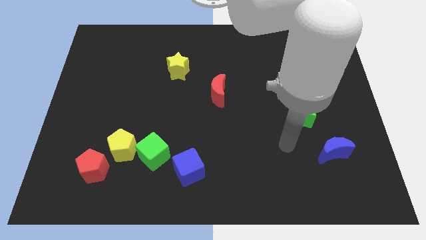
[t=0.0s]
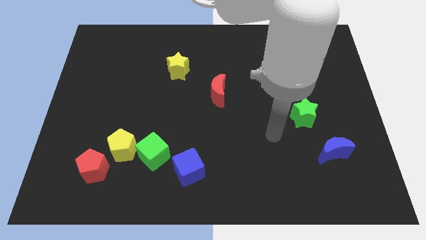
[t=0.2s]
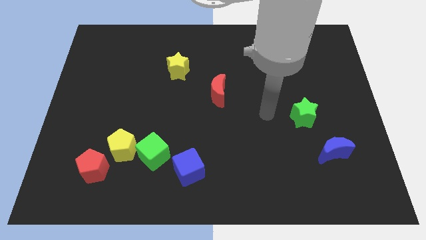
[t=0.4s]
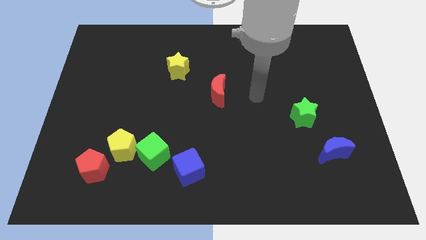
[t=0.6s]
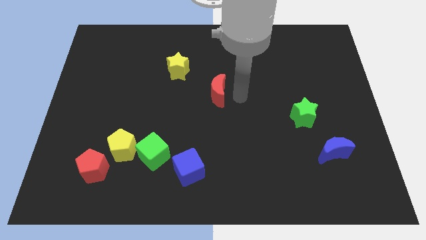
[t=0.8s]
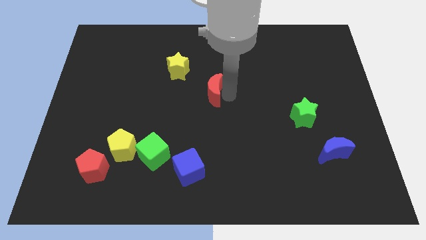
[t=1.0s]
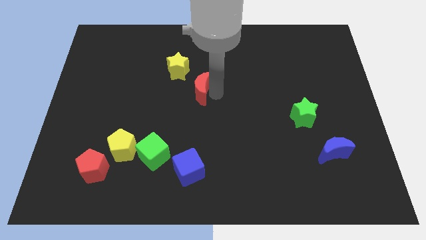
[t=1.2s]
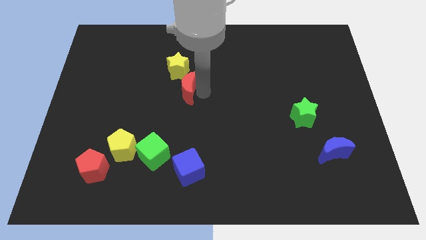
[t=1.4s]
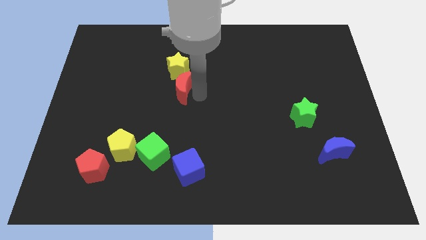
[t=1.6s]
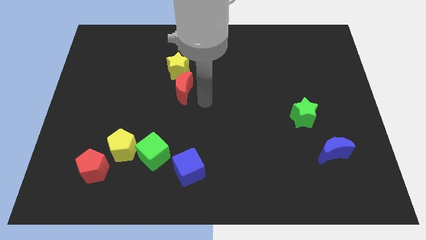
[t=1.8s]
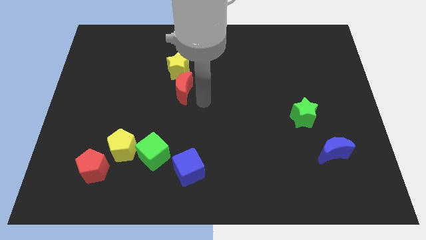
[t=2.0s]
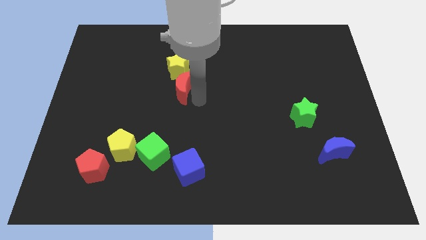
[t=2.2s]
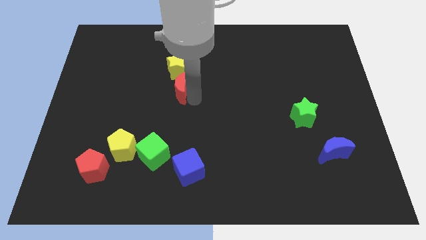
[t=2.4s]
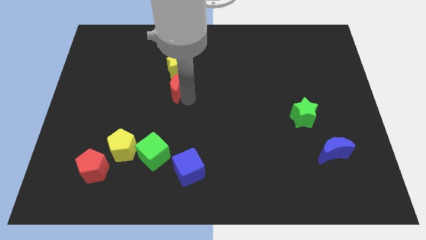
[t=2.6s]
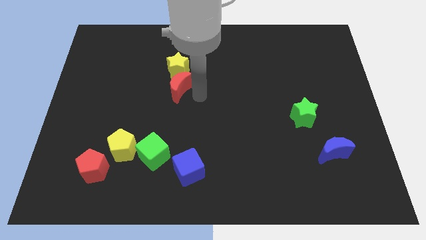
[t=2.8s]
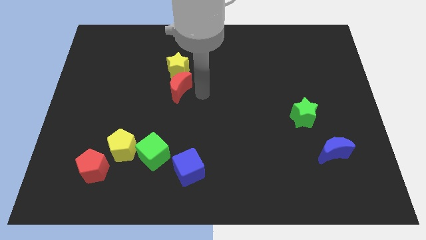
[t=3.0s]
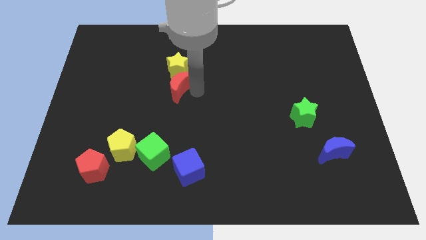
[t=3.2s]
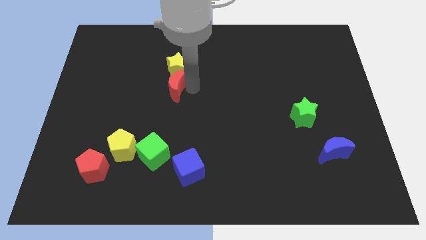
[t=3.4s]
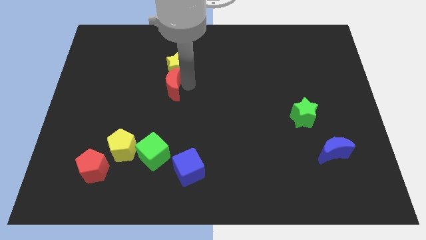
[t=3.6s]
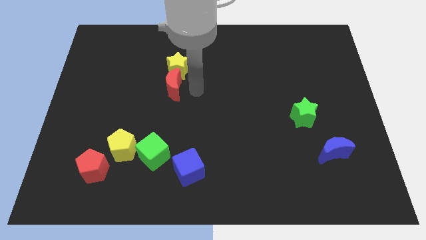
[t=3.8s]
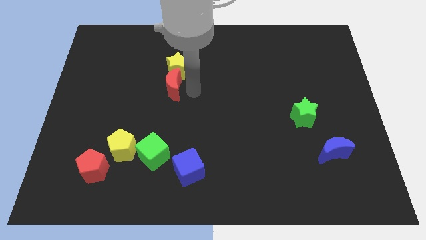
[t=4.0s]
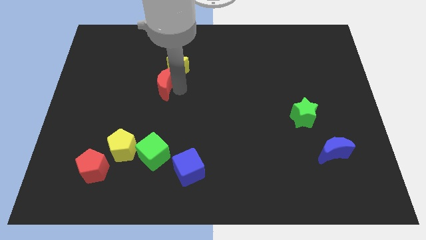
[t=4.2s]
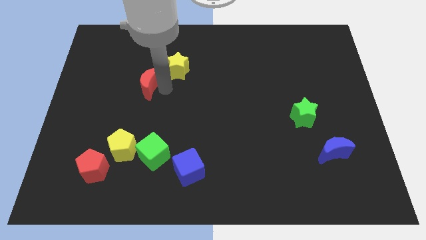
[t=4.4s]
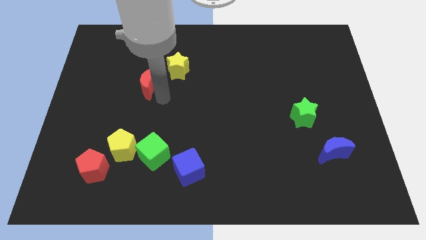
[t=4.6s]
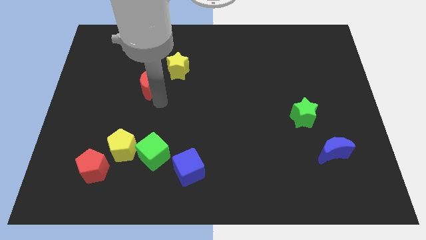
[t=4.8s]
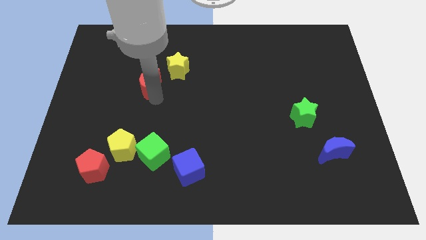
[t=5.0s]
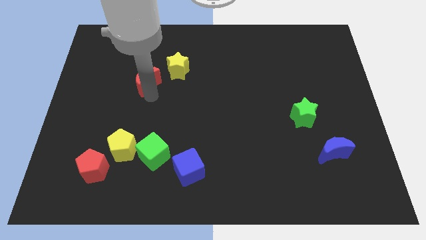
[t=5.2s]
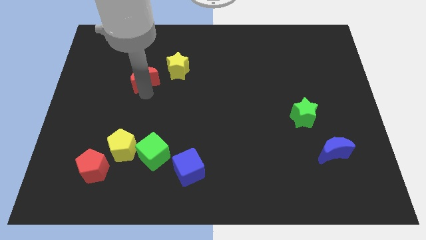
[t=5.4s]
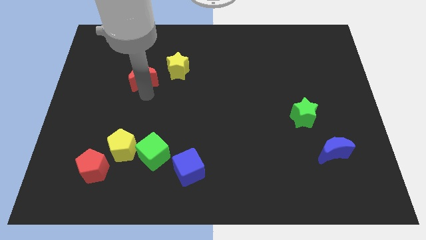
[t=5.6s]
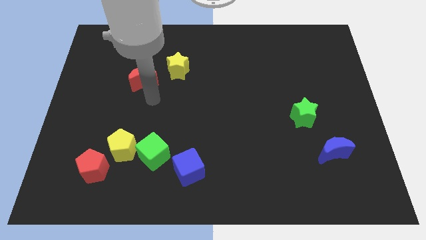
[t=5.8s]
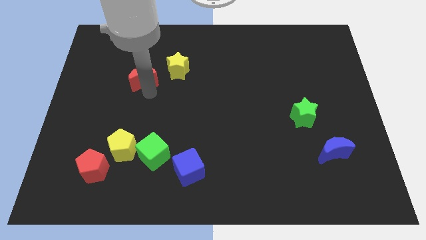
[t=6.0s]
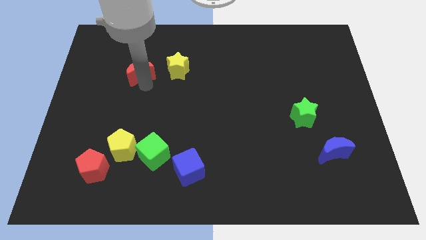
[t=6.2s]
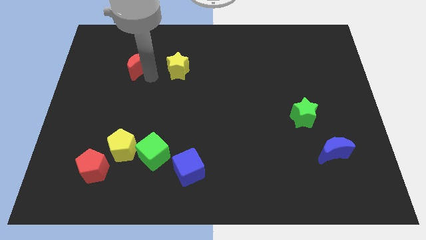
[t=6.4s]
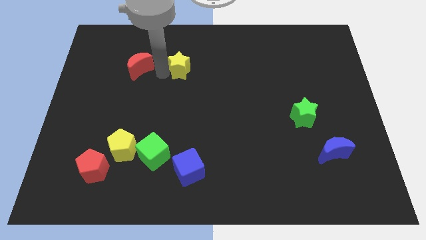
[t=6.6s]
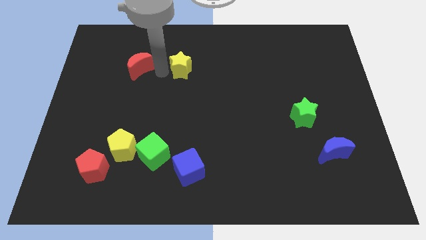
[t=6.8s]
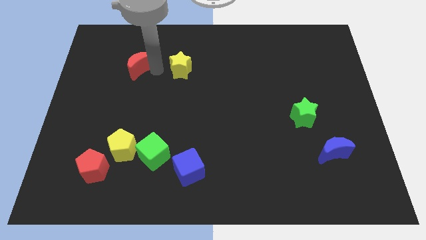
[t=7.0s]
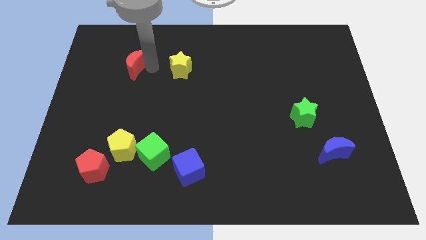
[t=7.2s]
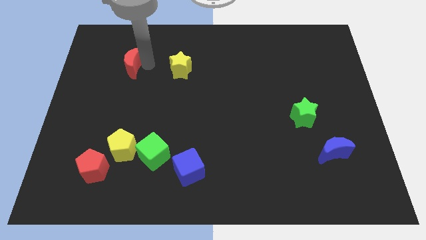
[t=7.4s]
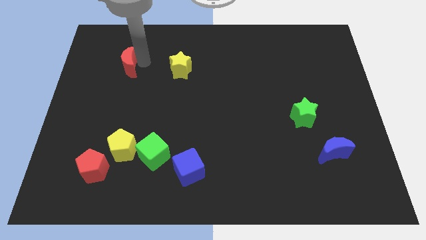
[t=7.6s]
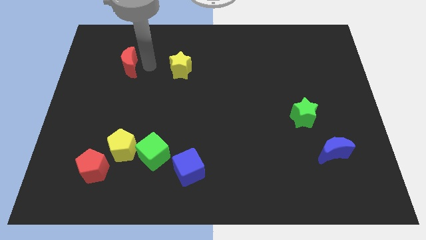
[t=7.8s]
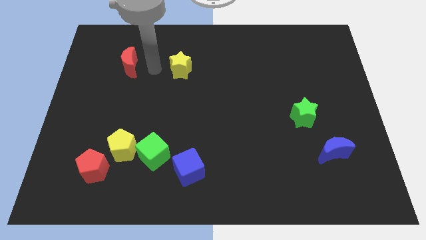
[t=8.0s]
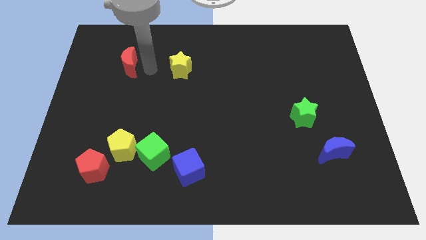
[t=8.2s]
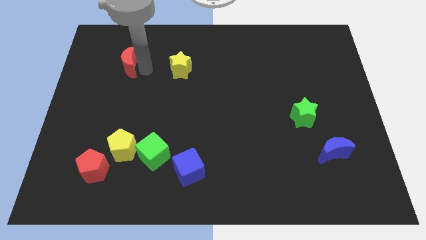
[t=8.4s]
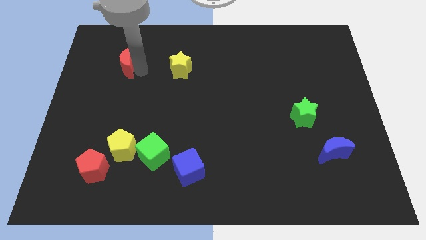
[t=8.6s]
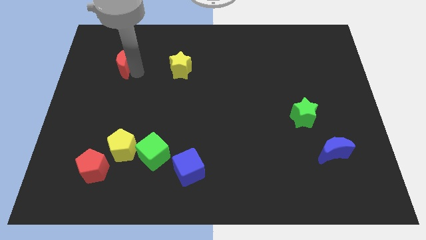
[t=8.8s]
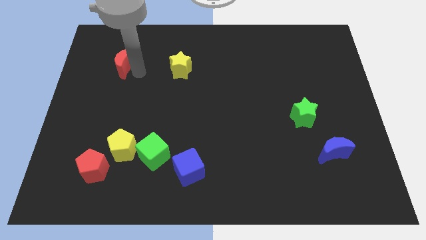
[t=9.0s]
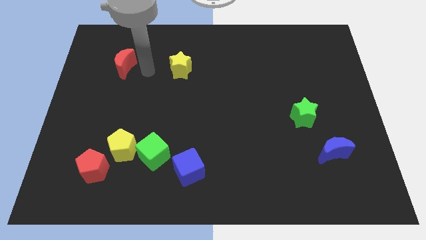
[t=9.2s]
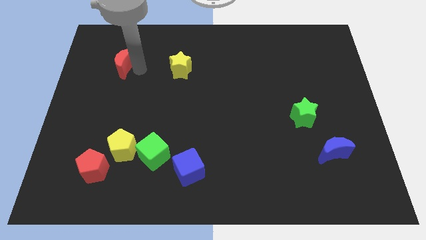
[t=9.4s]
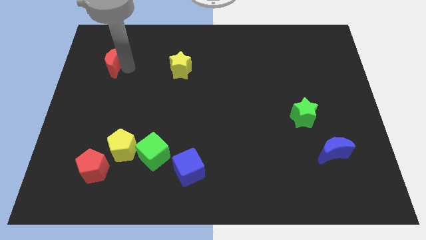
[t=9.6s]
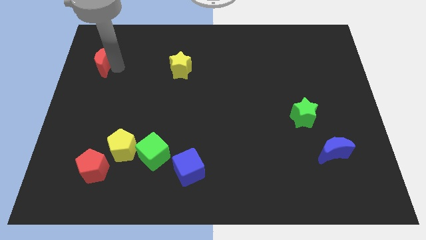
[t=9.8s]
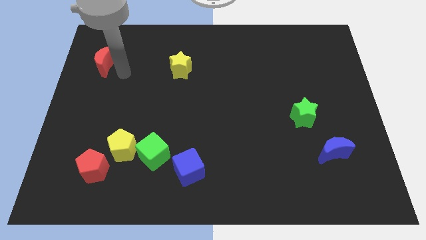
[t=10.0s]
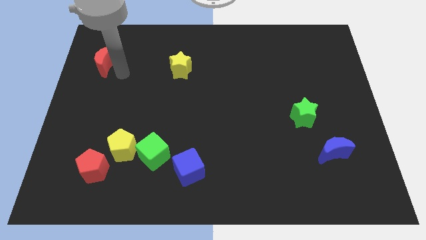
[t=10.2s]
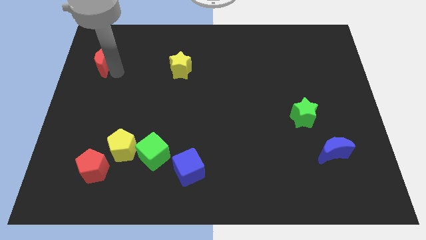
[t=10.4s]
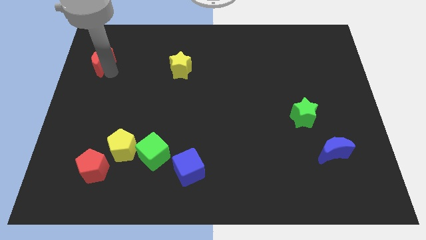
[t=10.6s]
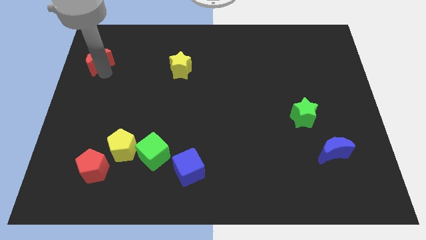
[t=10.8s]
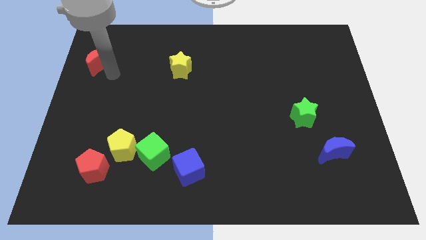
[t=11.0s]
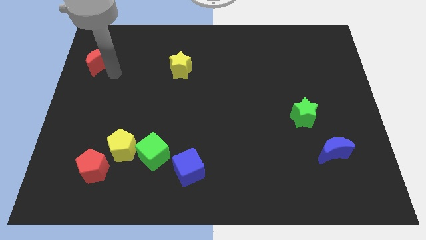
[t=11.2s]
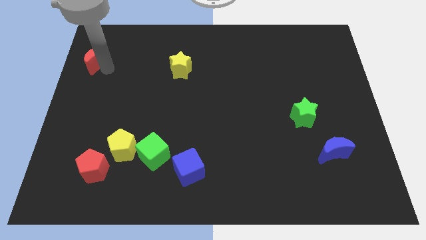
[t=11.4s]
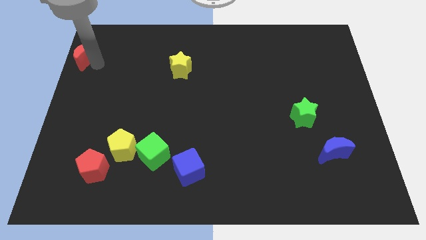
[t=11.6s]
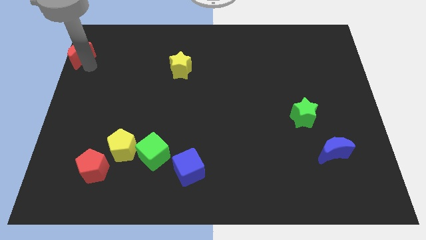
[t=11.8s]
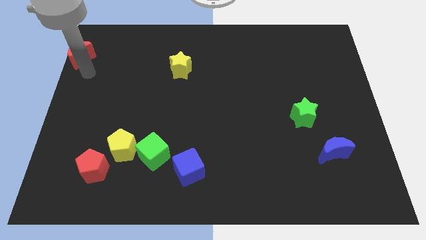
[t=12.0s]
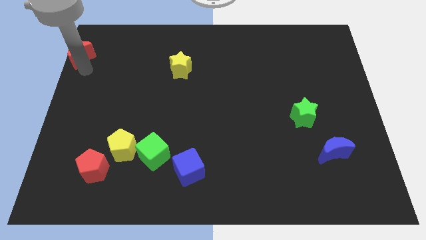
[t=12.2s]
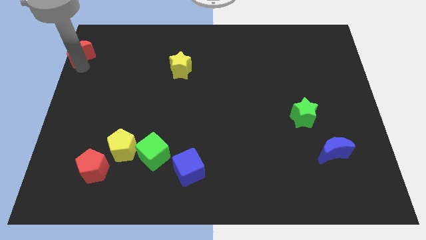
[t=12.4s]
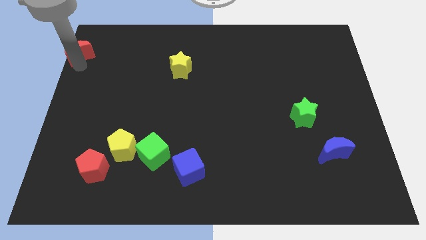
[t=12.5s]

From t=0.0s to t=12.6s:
slide the red moon to the top left
